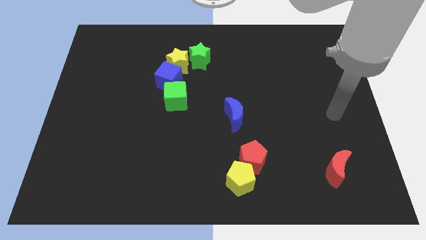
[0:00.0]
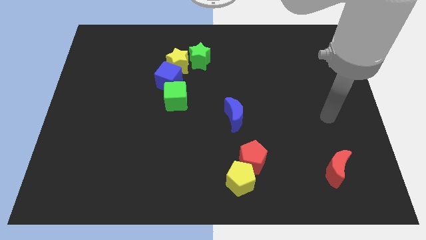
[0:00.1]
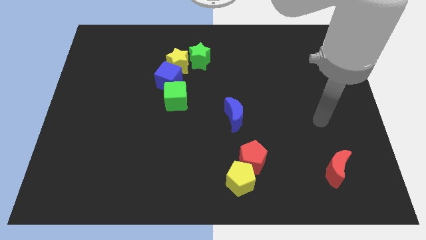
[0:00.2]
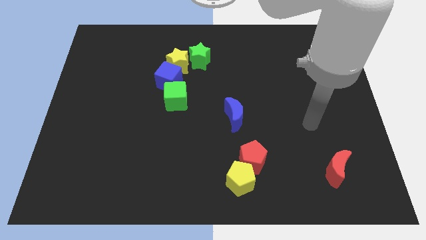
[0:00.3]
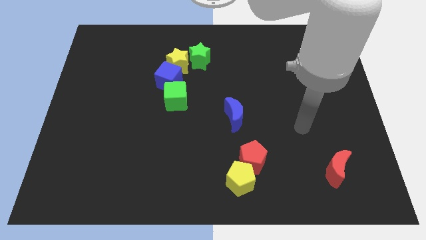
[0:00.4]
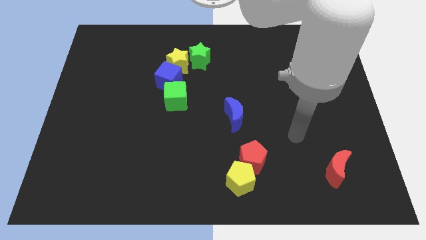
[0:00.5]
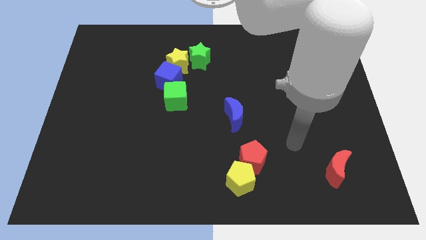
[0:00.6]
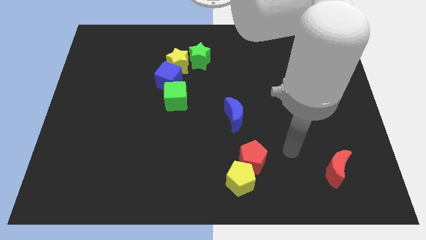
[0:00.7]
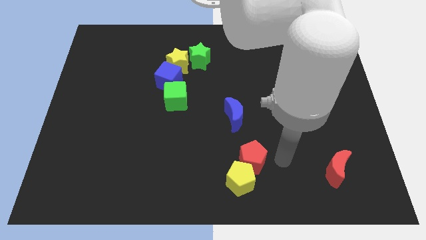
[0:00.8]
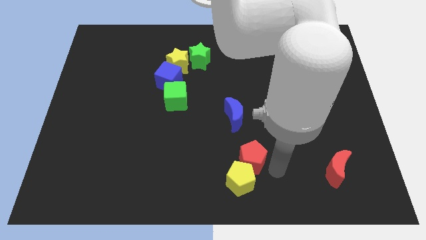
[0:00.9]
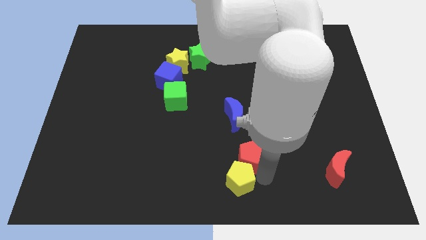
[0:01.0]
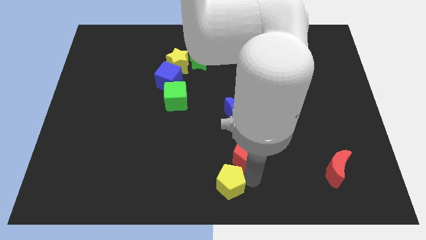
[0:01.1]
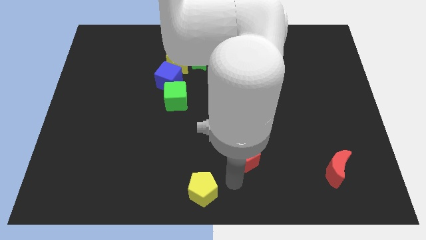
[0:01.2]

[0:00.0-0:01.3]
pull the red pentagon apart from the yellow pentagon

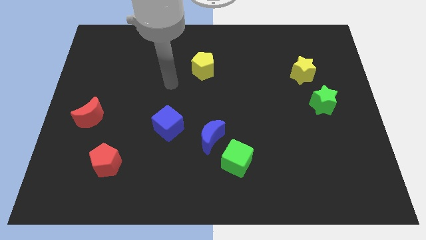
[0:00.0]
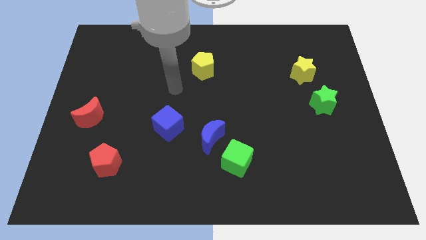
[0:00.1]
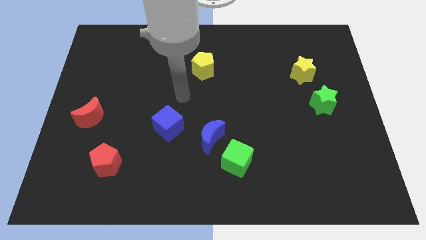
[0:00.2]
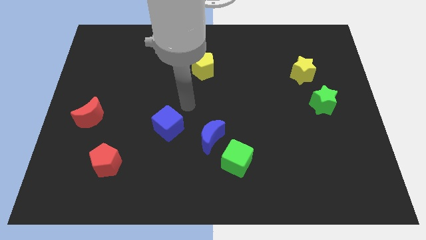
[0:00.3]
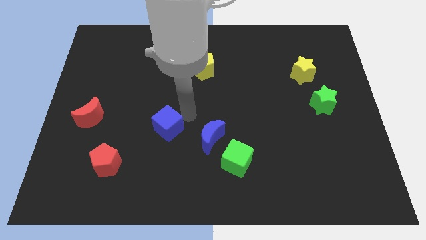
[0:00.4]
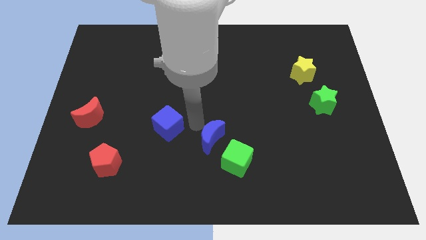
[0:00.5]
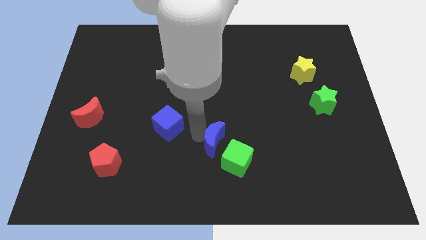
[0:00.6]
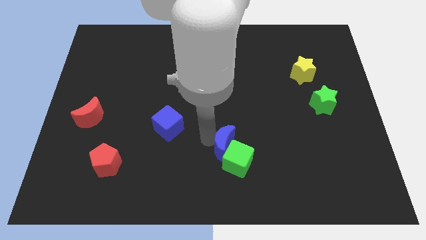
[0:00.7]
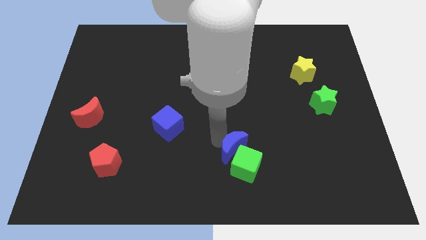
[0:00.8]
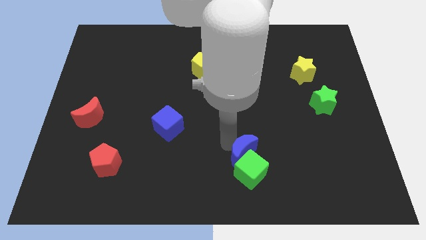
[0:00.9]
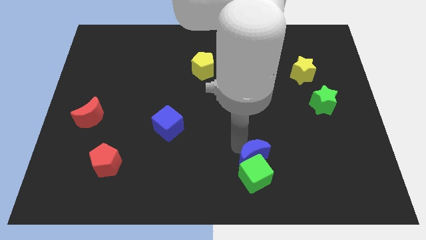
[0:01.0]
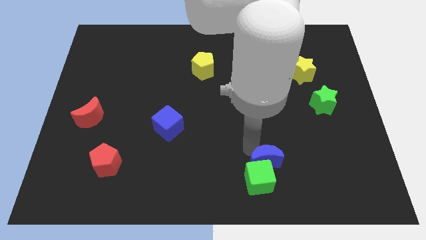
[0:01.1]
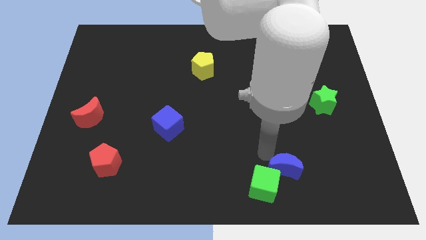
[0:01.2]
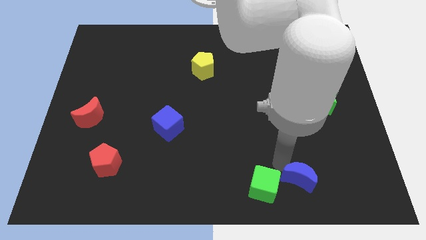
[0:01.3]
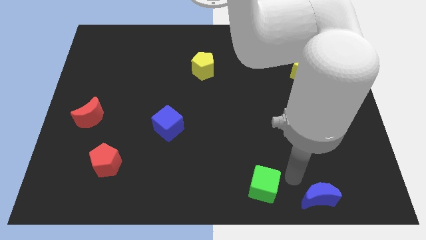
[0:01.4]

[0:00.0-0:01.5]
separate the green cube from the blue moon

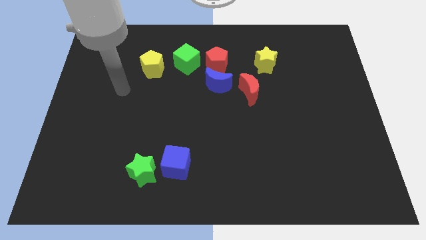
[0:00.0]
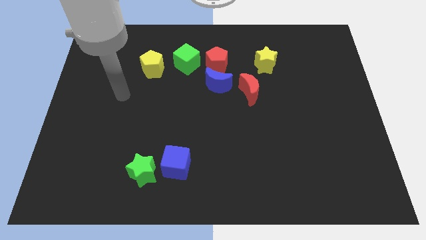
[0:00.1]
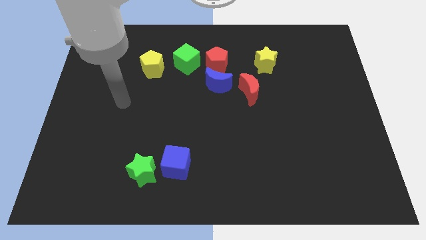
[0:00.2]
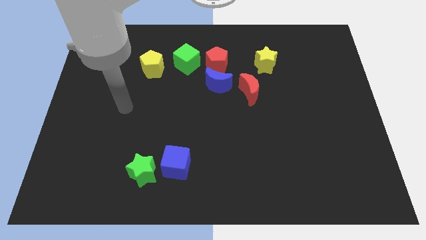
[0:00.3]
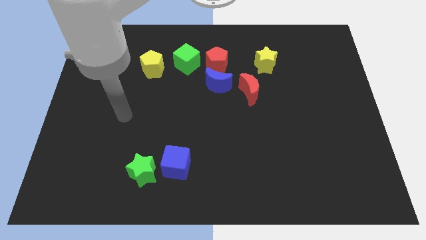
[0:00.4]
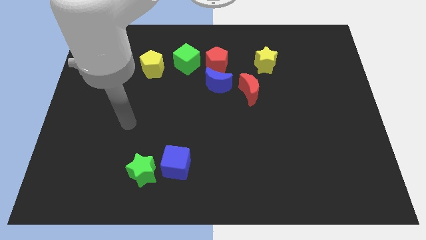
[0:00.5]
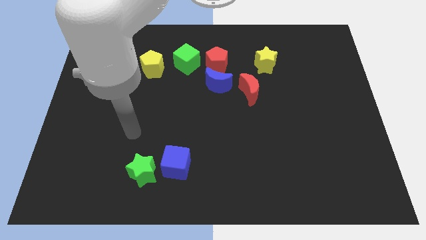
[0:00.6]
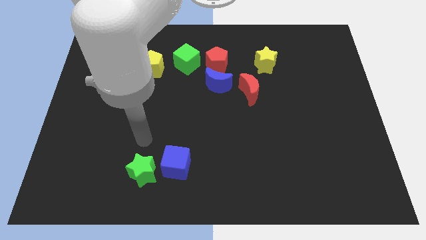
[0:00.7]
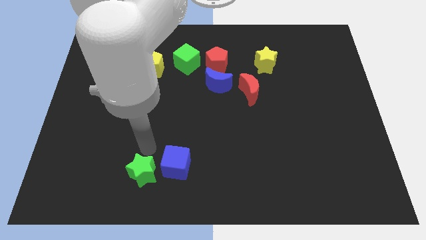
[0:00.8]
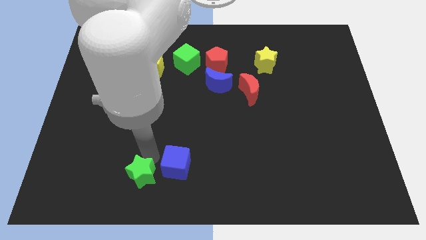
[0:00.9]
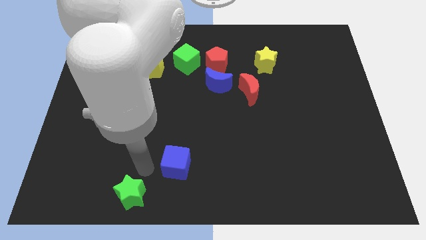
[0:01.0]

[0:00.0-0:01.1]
separate the blue cube from the green star

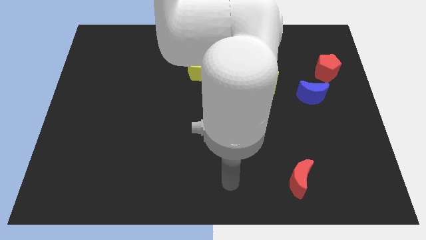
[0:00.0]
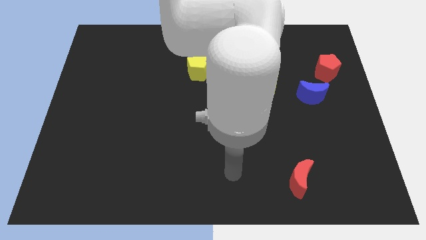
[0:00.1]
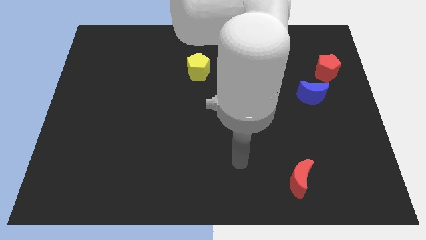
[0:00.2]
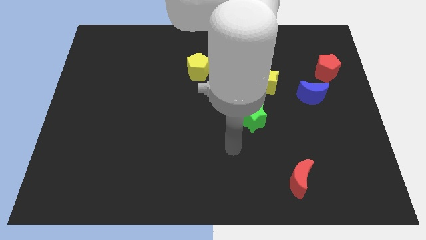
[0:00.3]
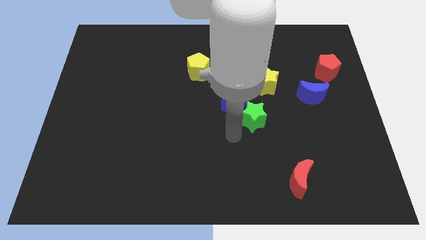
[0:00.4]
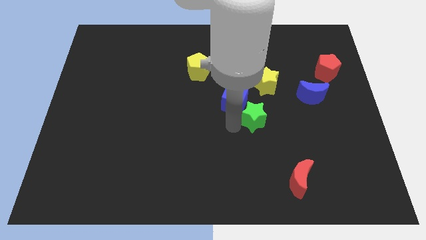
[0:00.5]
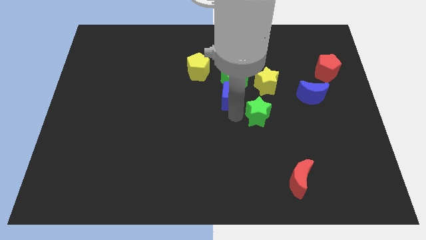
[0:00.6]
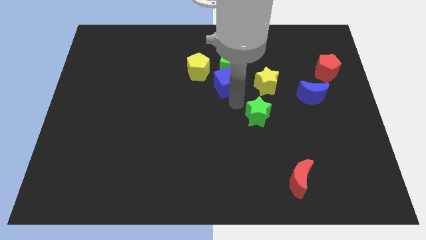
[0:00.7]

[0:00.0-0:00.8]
pull the green star apart from the blue cube

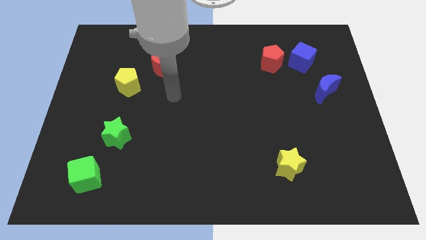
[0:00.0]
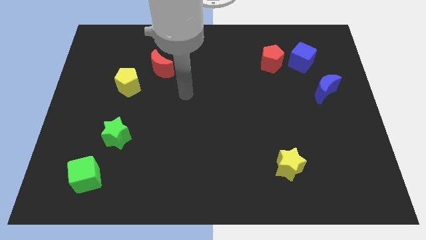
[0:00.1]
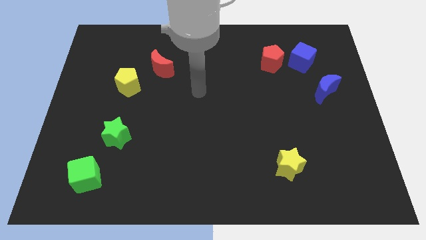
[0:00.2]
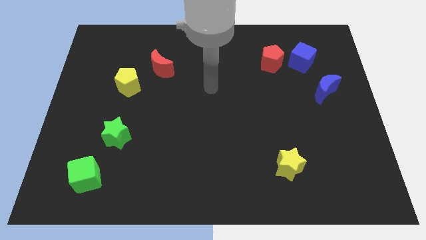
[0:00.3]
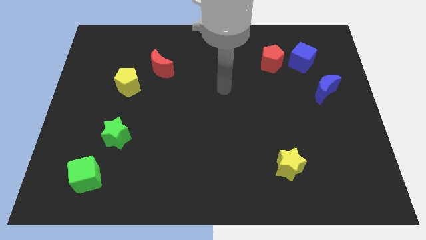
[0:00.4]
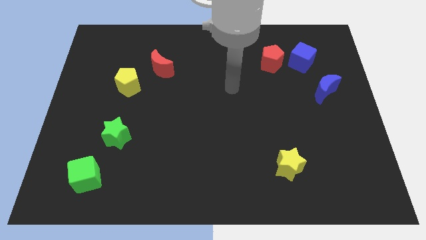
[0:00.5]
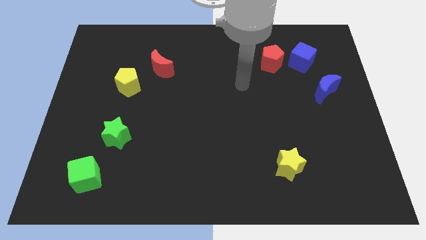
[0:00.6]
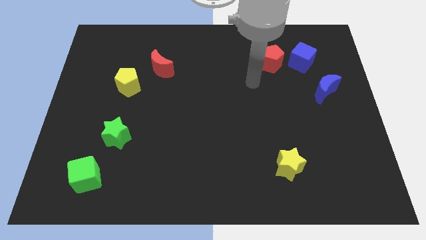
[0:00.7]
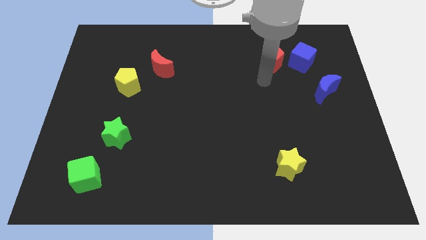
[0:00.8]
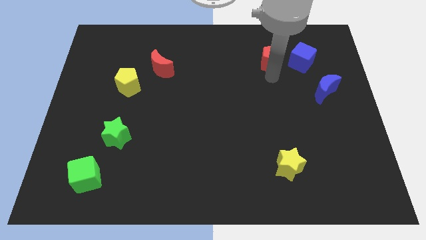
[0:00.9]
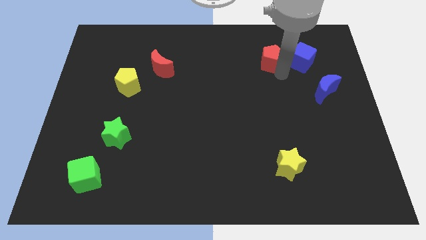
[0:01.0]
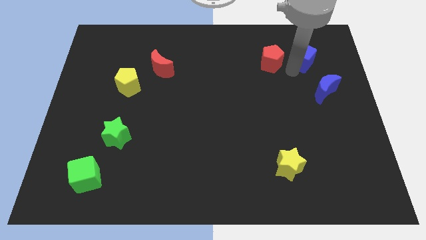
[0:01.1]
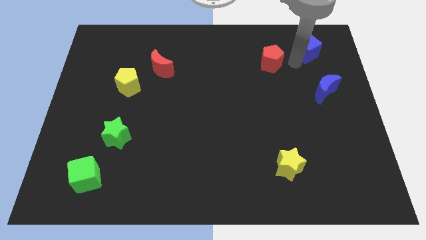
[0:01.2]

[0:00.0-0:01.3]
separate the red pentagon from the blue cube

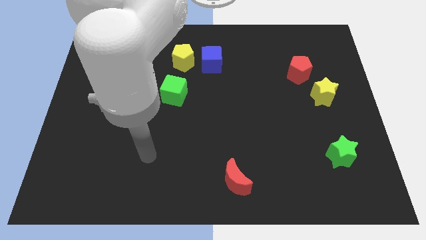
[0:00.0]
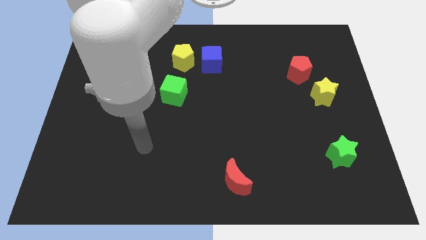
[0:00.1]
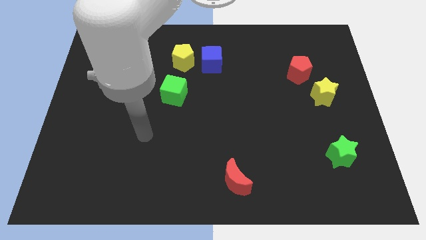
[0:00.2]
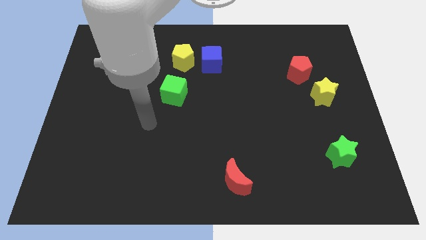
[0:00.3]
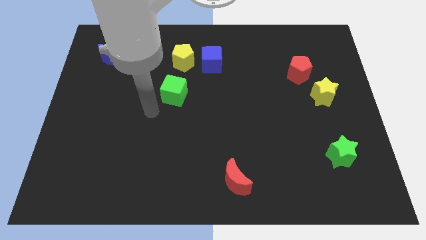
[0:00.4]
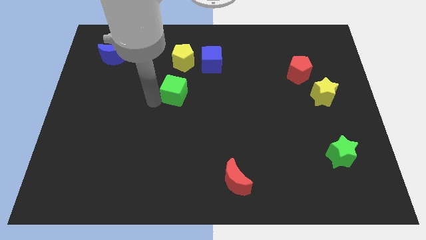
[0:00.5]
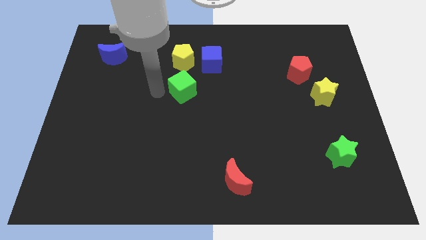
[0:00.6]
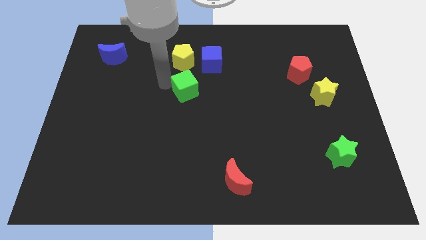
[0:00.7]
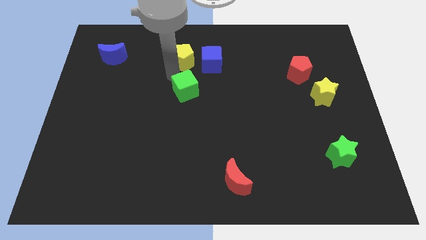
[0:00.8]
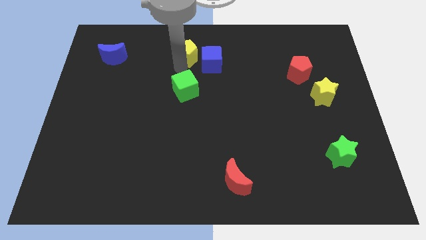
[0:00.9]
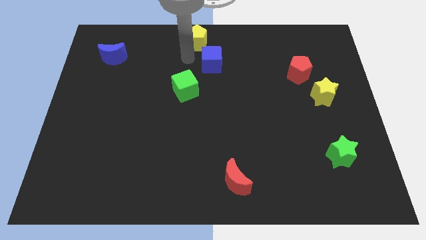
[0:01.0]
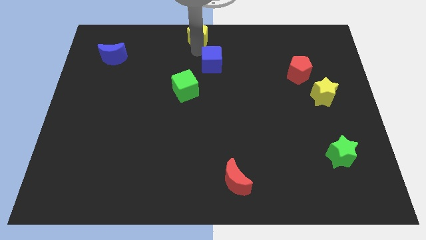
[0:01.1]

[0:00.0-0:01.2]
move the blue cube away from the yellow pentagon

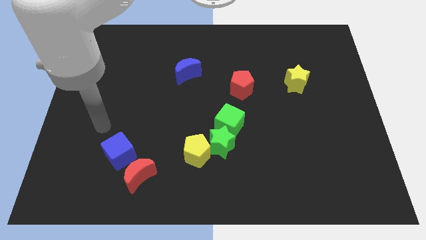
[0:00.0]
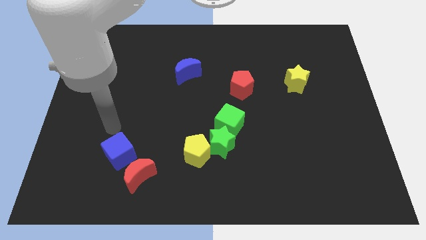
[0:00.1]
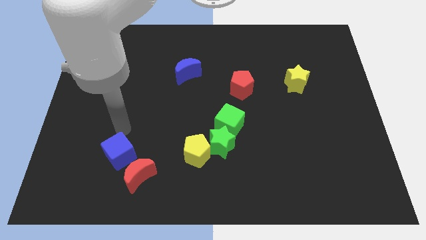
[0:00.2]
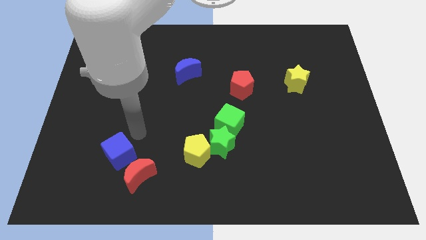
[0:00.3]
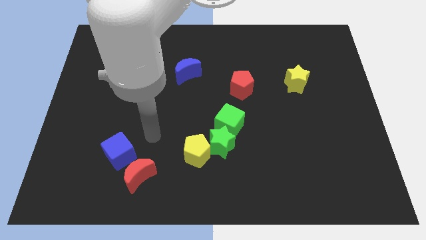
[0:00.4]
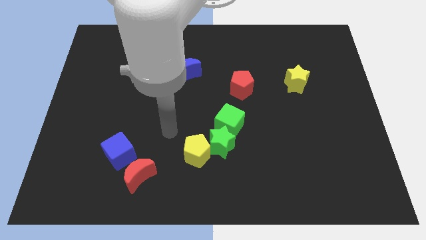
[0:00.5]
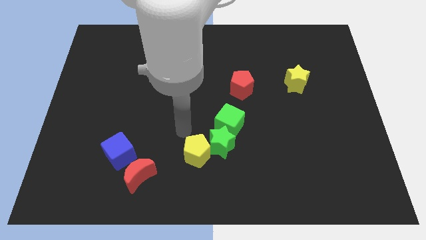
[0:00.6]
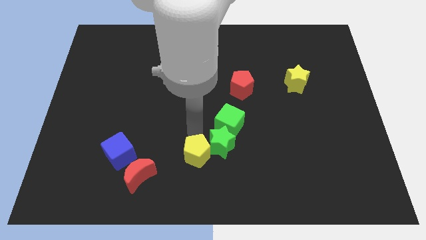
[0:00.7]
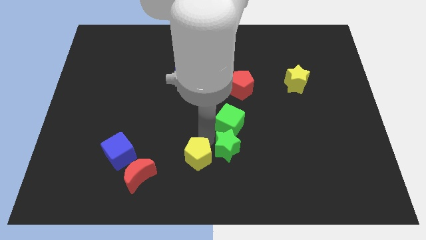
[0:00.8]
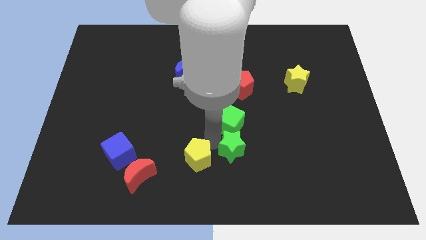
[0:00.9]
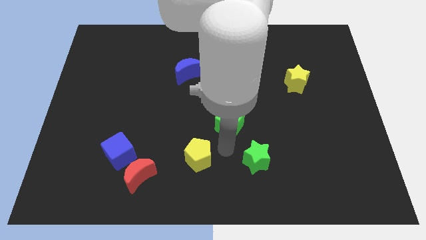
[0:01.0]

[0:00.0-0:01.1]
move the yellow pentagon away from the green star

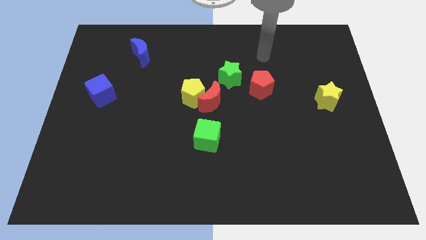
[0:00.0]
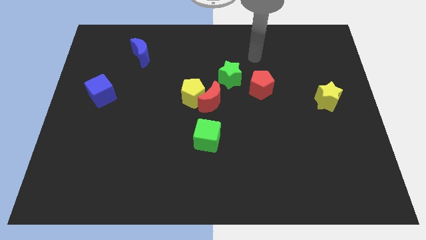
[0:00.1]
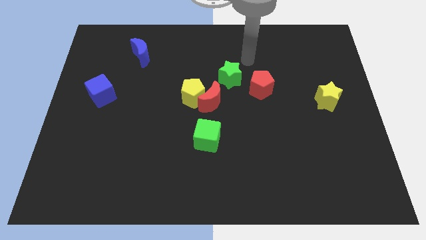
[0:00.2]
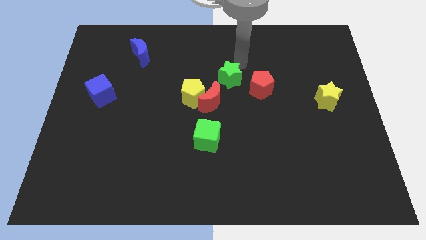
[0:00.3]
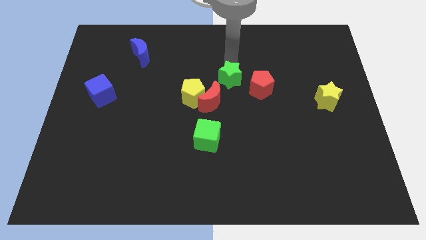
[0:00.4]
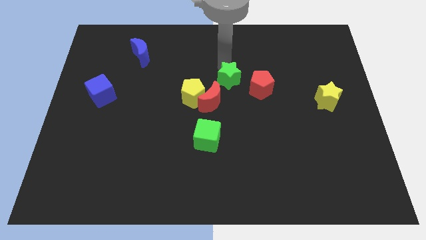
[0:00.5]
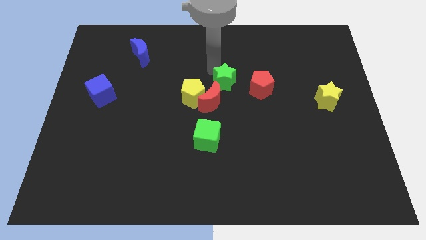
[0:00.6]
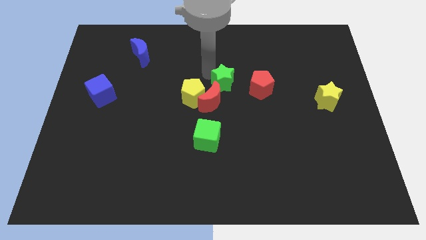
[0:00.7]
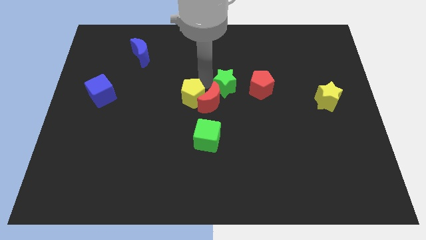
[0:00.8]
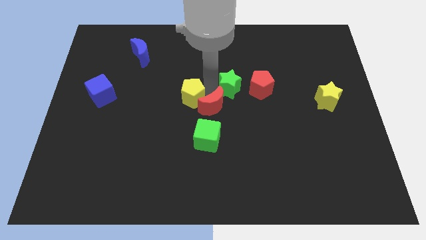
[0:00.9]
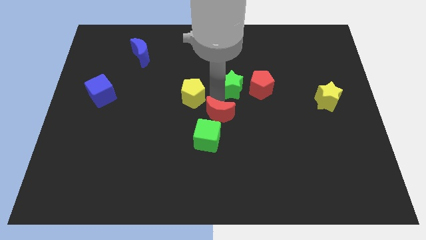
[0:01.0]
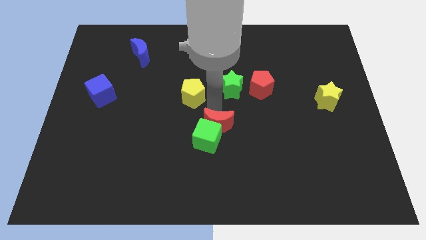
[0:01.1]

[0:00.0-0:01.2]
separate the yellow pentagon from the red moon
